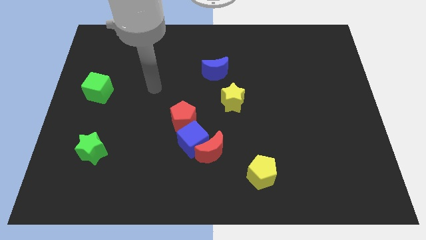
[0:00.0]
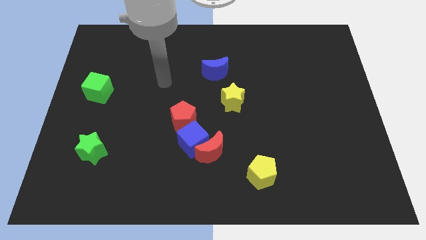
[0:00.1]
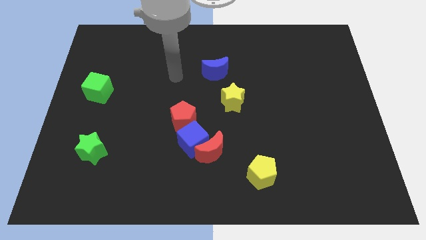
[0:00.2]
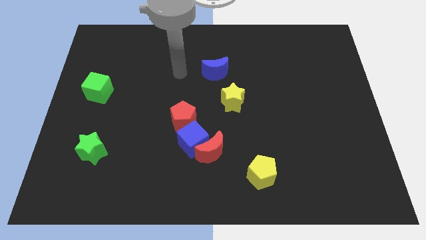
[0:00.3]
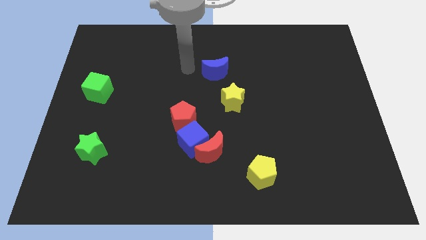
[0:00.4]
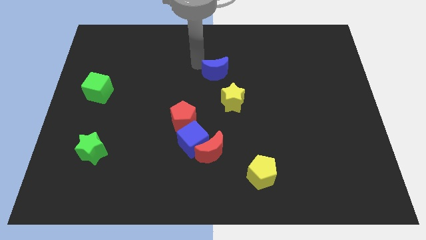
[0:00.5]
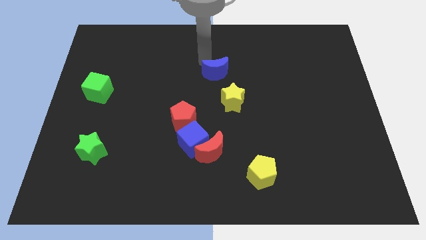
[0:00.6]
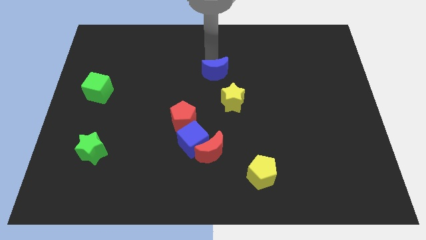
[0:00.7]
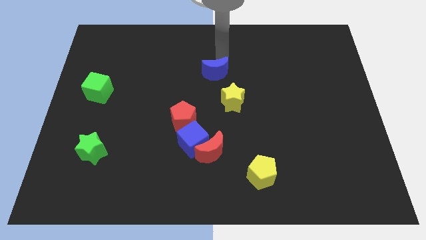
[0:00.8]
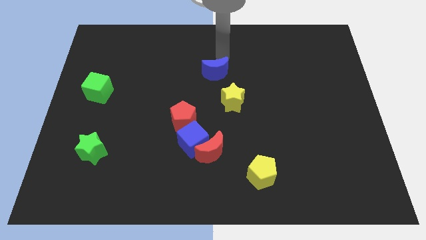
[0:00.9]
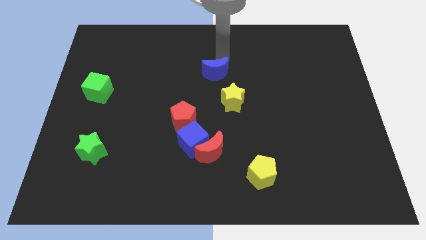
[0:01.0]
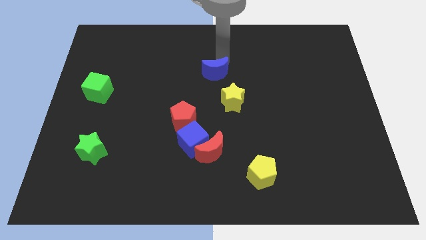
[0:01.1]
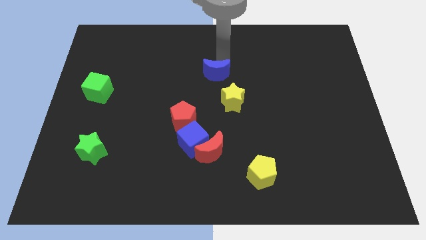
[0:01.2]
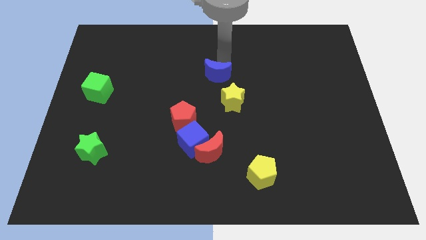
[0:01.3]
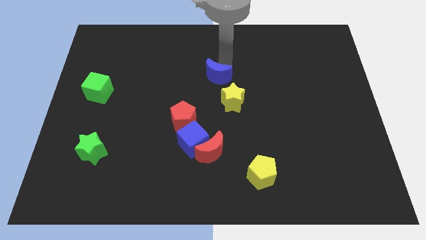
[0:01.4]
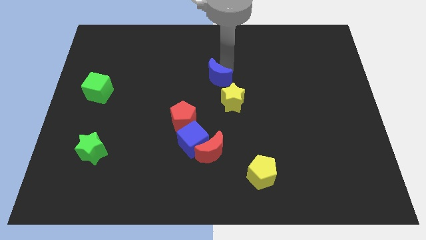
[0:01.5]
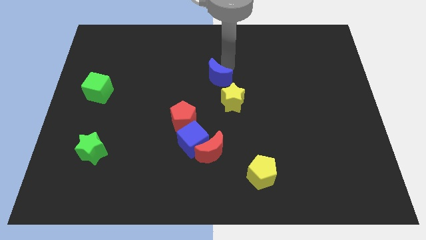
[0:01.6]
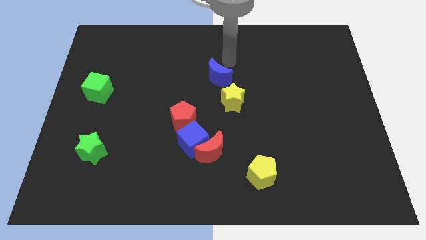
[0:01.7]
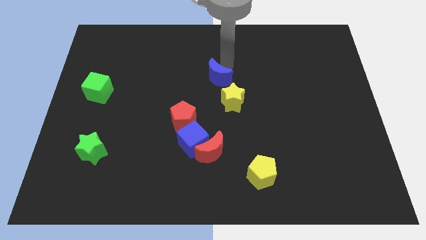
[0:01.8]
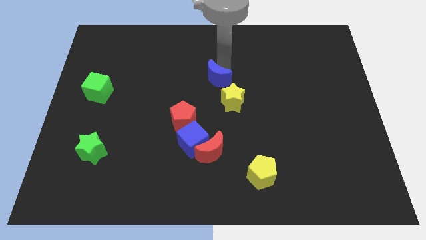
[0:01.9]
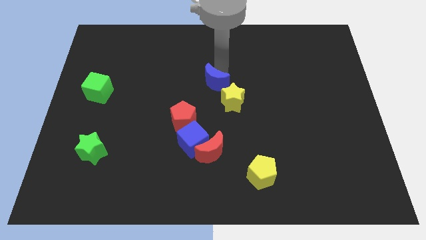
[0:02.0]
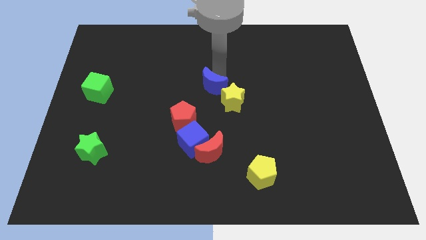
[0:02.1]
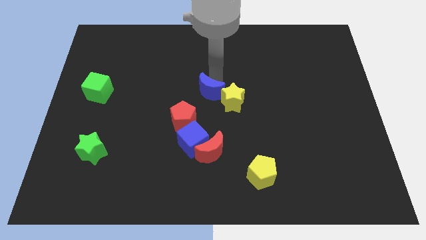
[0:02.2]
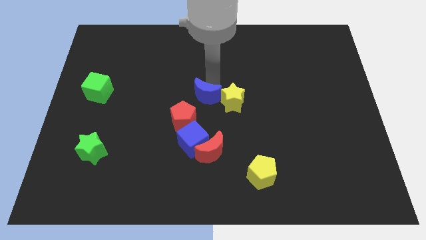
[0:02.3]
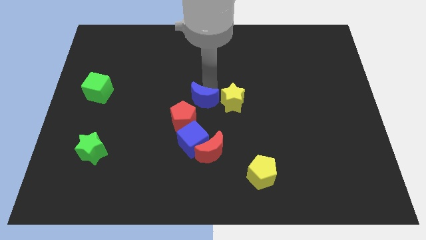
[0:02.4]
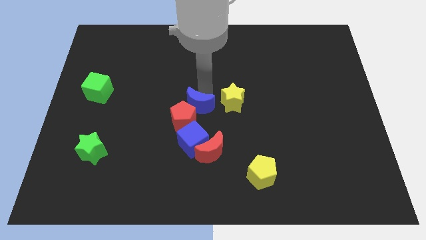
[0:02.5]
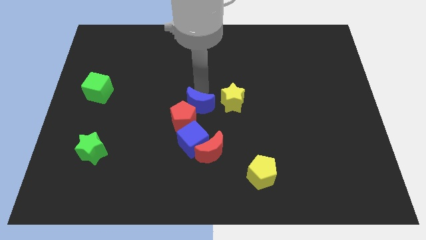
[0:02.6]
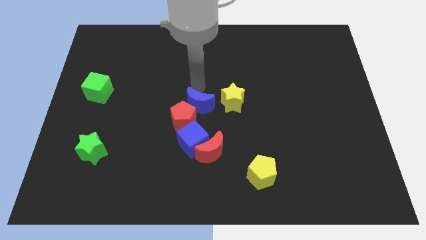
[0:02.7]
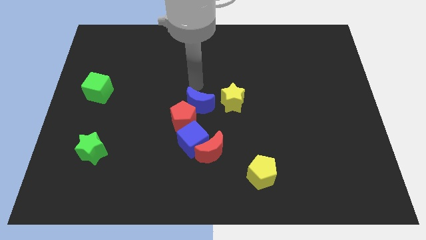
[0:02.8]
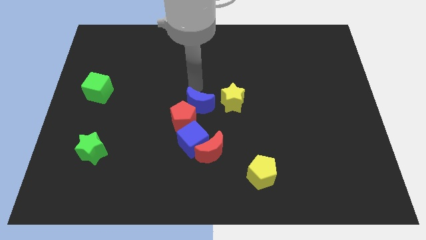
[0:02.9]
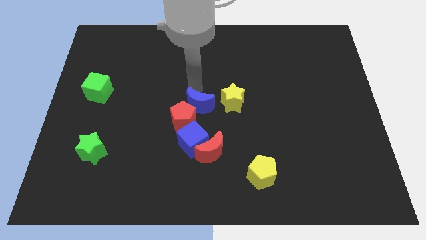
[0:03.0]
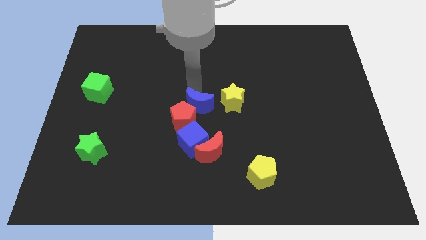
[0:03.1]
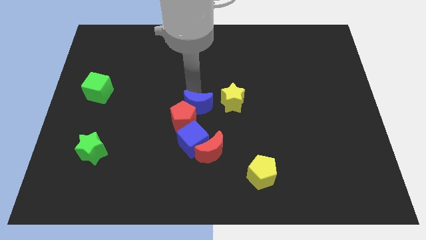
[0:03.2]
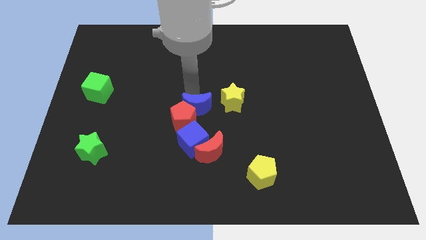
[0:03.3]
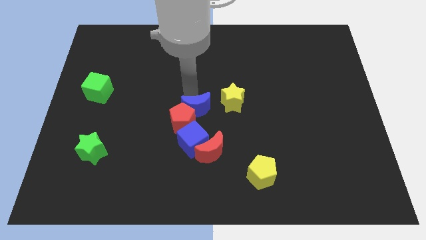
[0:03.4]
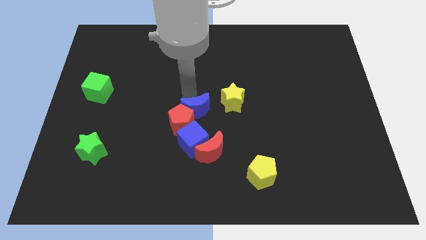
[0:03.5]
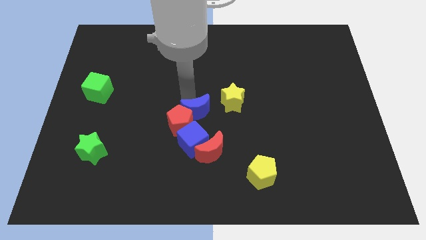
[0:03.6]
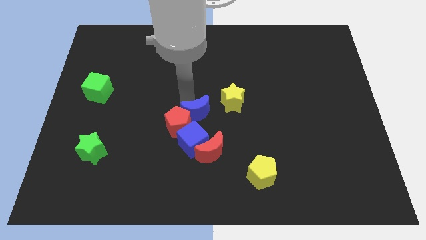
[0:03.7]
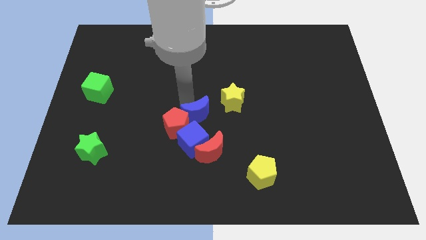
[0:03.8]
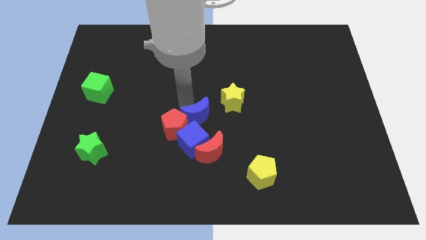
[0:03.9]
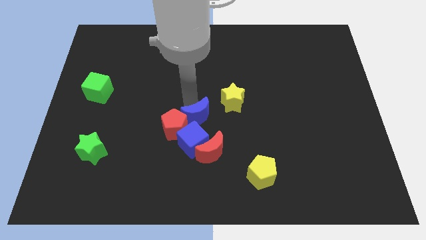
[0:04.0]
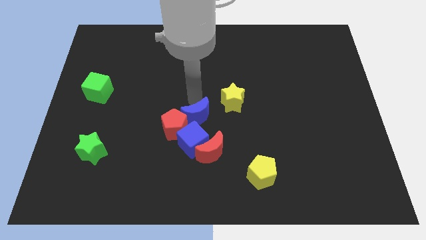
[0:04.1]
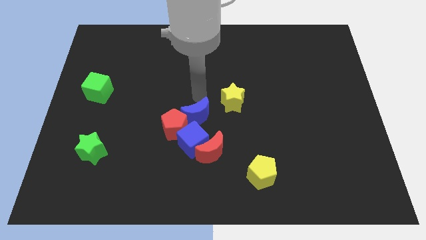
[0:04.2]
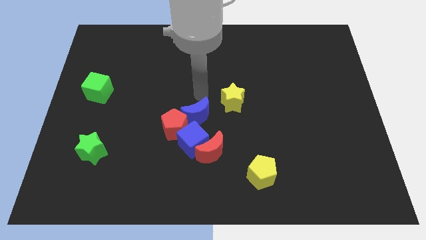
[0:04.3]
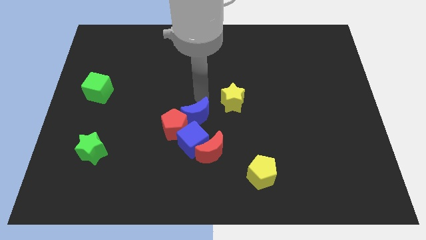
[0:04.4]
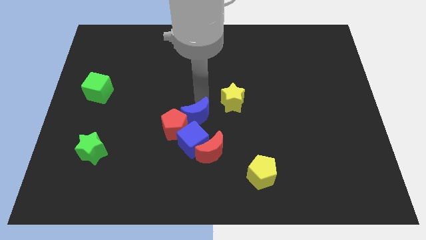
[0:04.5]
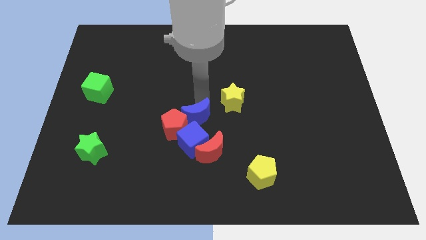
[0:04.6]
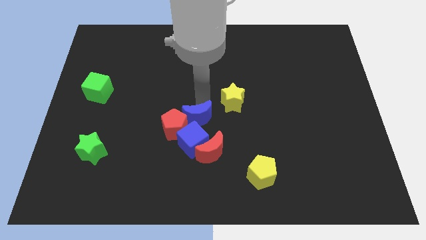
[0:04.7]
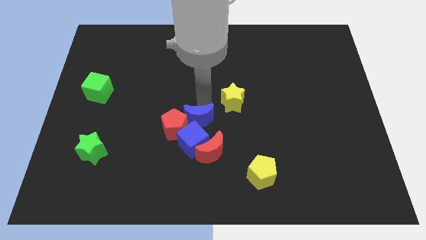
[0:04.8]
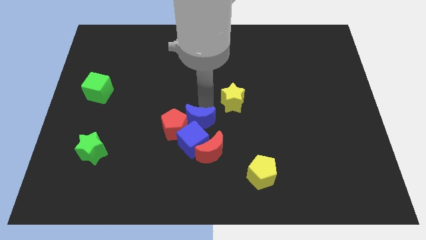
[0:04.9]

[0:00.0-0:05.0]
move the blue moon towards the blue cube

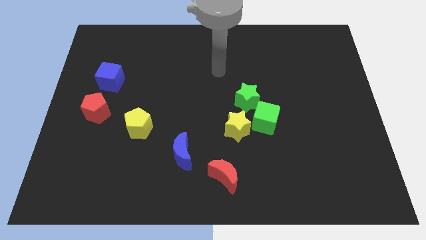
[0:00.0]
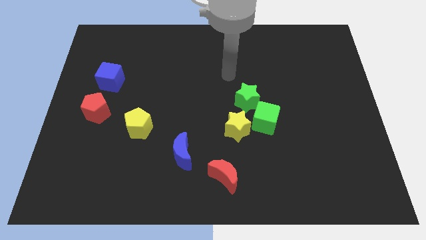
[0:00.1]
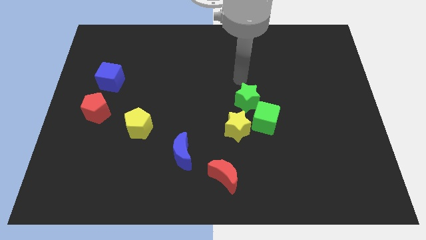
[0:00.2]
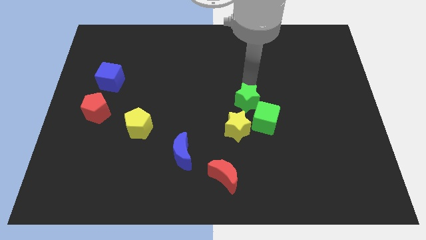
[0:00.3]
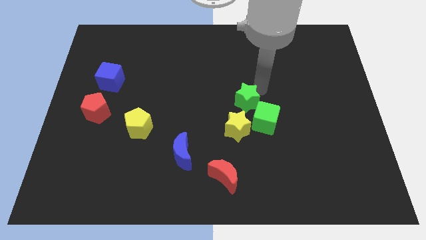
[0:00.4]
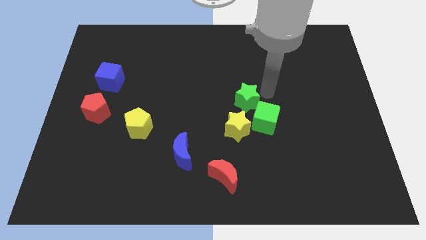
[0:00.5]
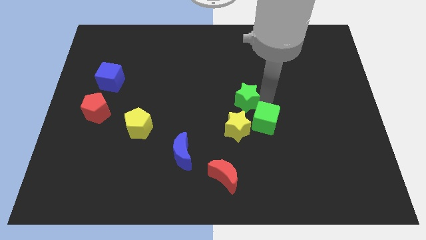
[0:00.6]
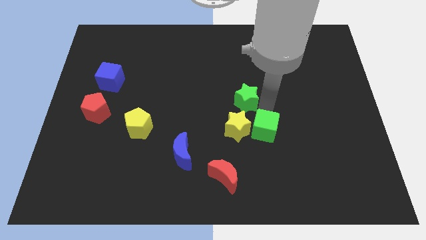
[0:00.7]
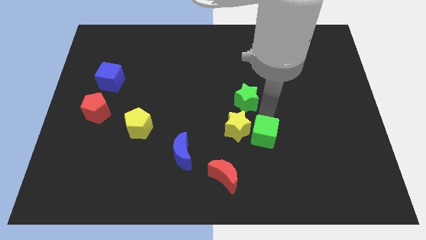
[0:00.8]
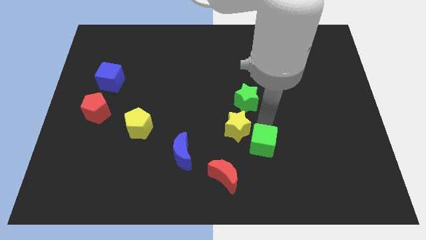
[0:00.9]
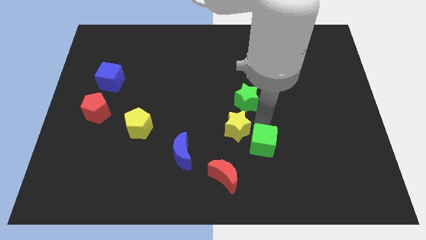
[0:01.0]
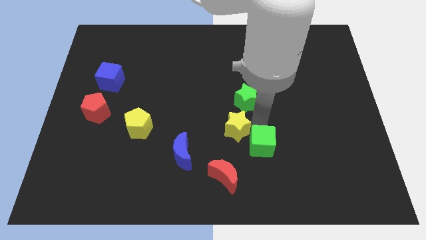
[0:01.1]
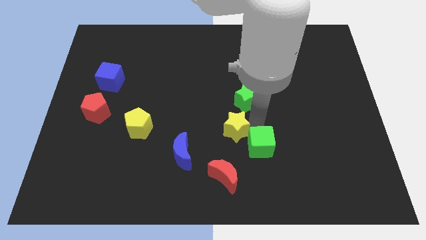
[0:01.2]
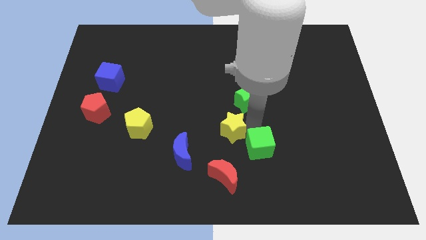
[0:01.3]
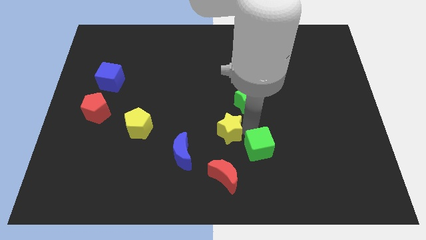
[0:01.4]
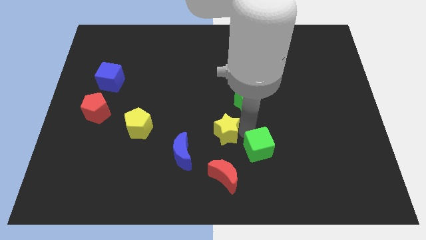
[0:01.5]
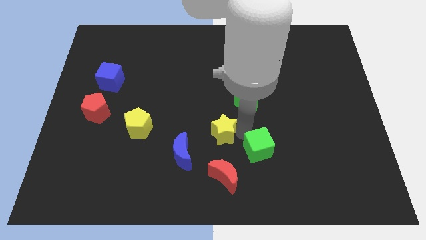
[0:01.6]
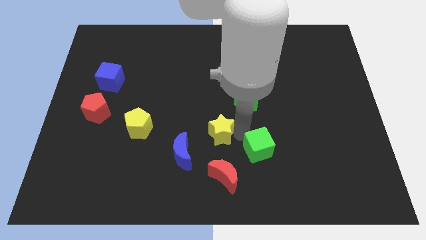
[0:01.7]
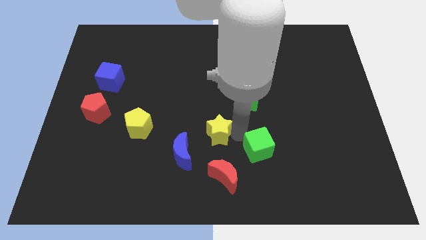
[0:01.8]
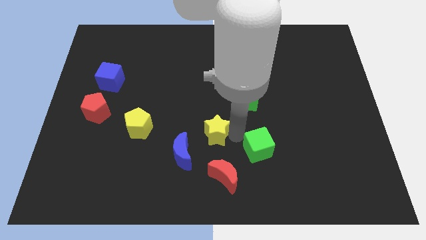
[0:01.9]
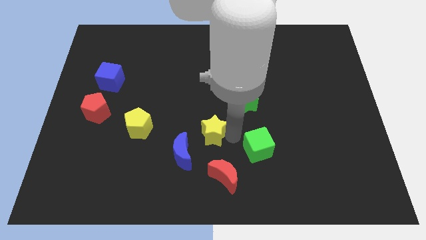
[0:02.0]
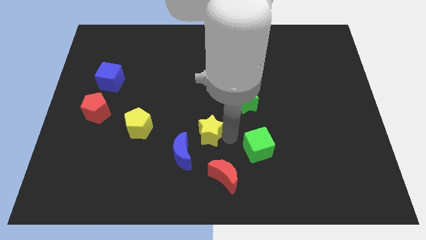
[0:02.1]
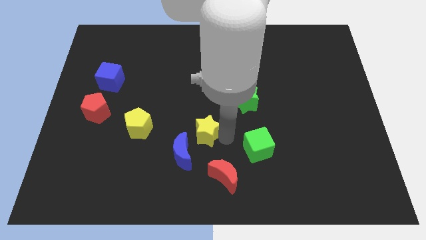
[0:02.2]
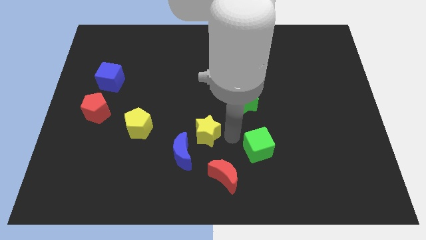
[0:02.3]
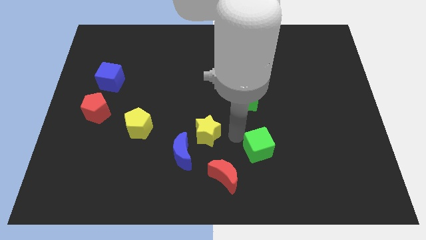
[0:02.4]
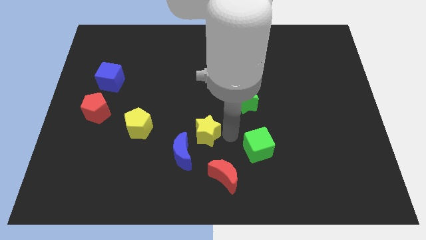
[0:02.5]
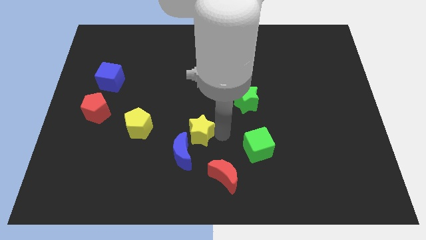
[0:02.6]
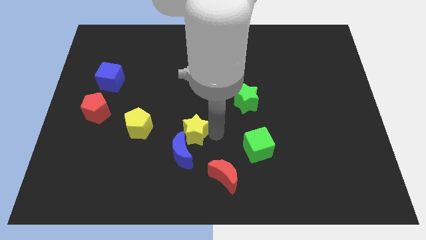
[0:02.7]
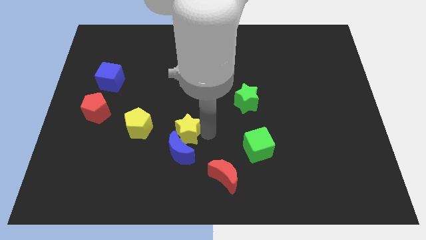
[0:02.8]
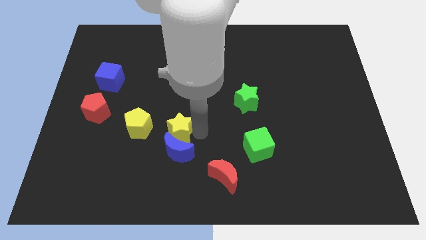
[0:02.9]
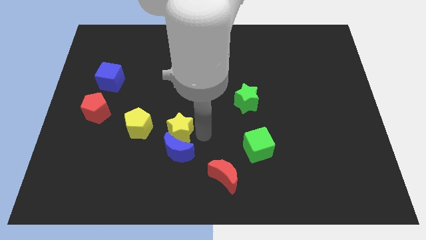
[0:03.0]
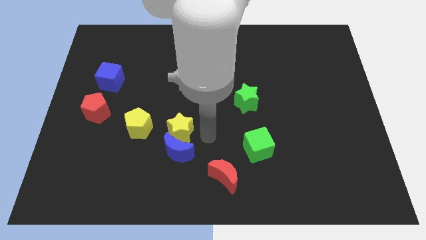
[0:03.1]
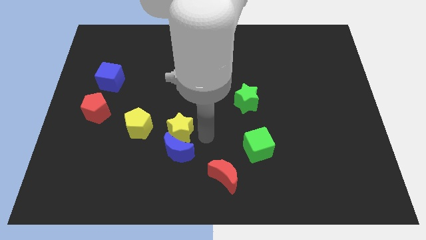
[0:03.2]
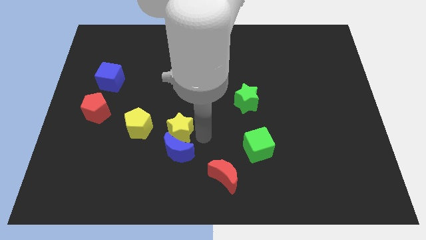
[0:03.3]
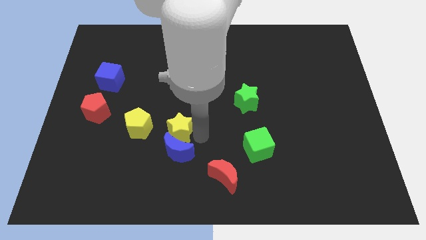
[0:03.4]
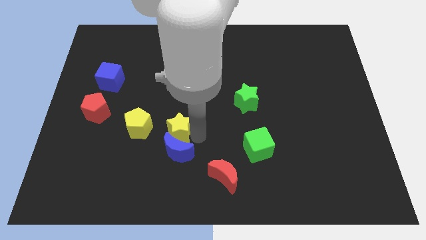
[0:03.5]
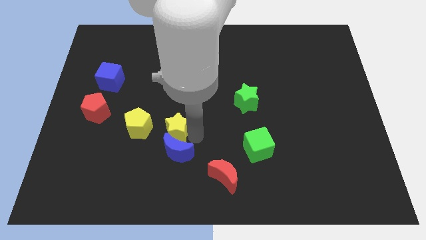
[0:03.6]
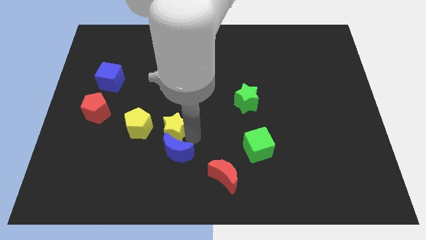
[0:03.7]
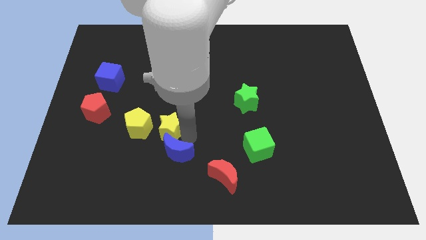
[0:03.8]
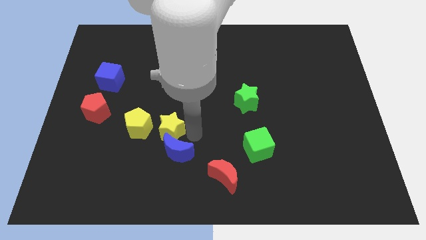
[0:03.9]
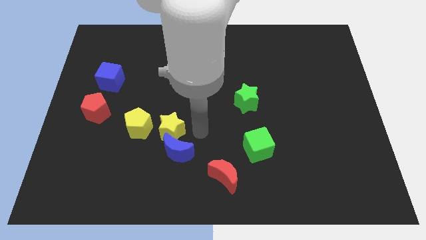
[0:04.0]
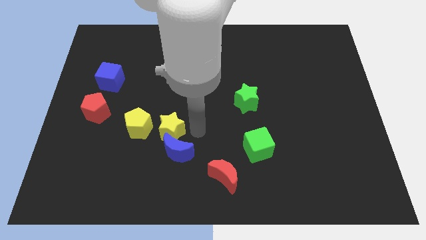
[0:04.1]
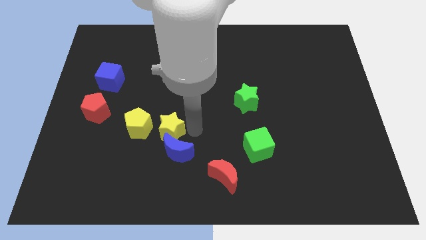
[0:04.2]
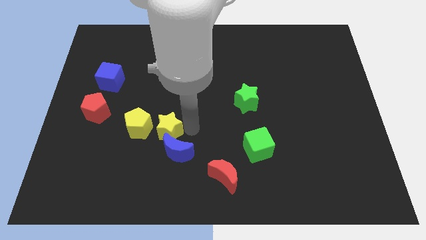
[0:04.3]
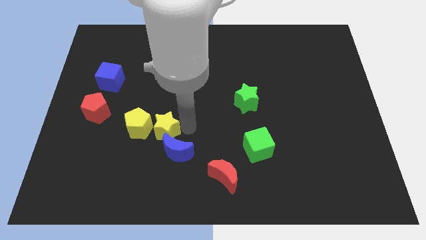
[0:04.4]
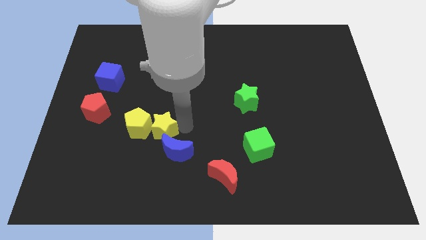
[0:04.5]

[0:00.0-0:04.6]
put the yellow star towards the yellow pentagon
